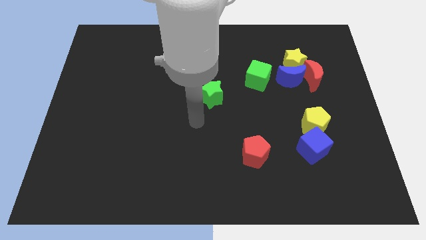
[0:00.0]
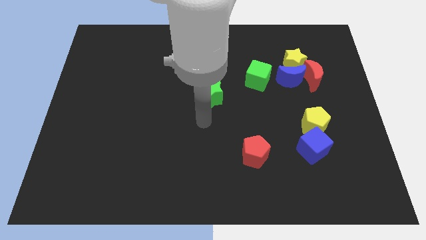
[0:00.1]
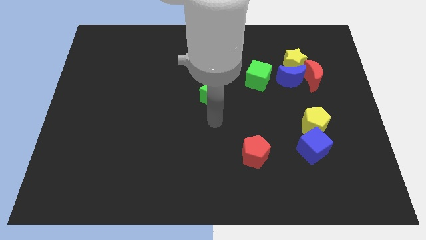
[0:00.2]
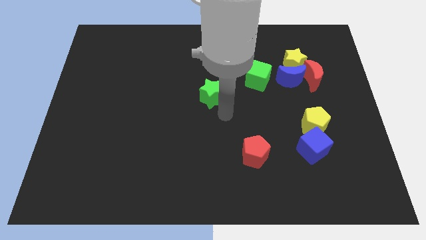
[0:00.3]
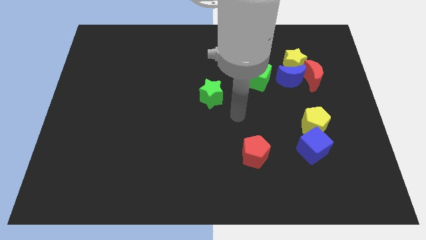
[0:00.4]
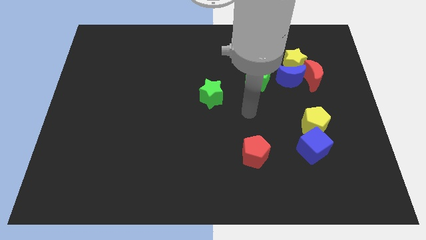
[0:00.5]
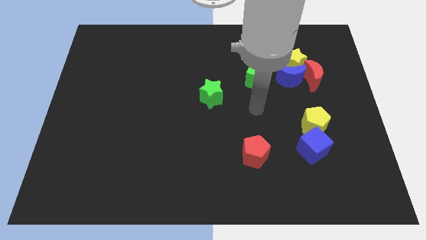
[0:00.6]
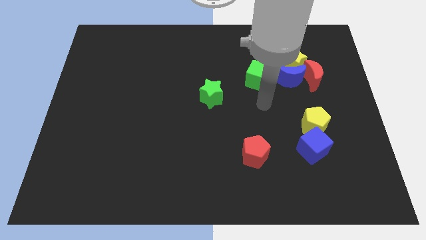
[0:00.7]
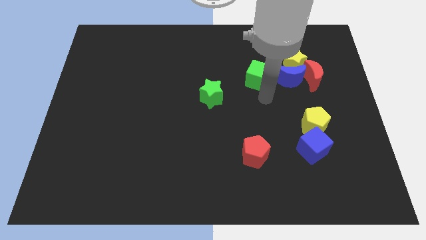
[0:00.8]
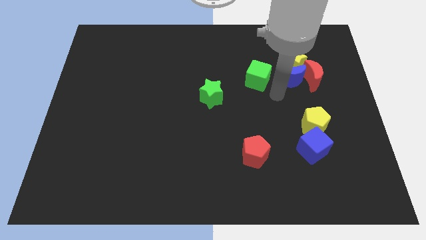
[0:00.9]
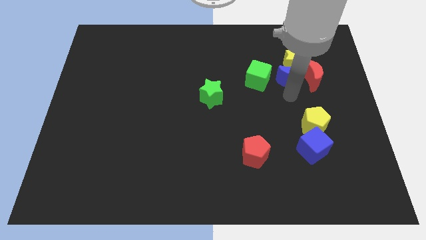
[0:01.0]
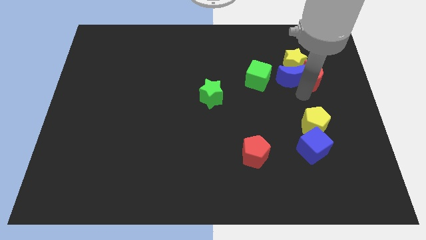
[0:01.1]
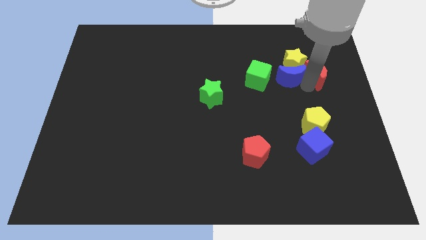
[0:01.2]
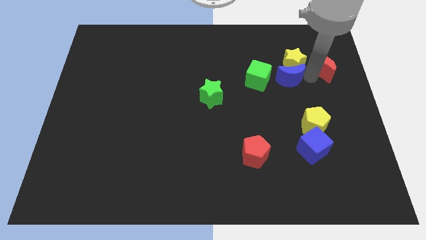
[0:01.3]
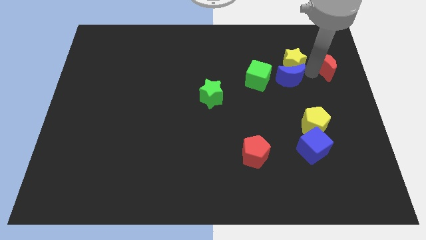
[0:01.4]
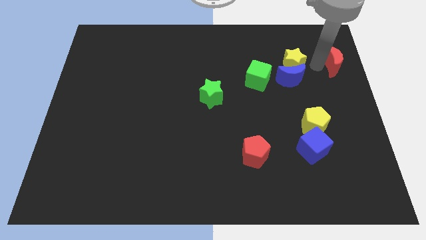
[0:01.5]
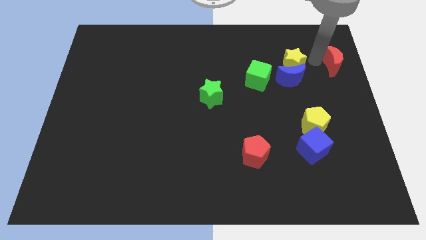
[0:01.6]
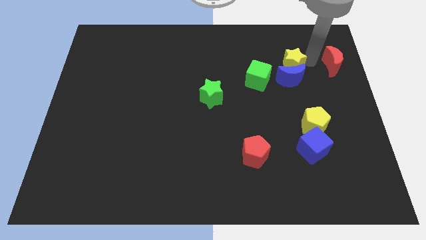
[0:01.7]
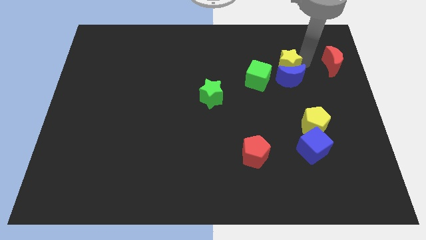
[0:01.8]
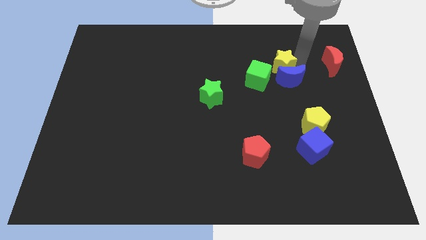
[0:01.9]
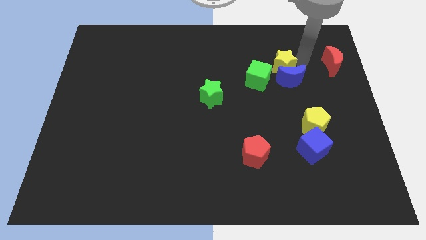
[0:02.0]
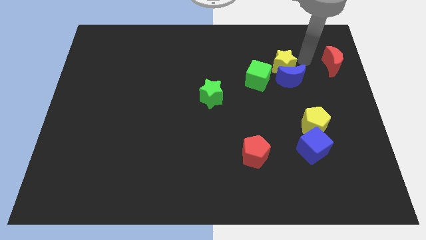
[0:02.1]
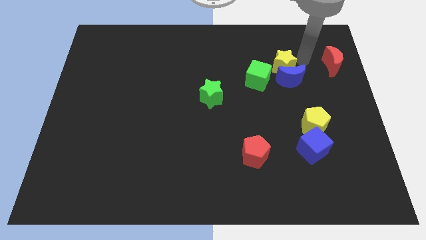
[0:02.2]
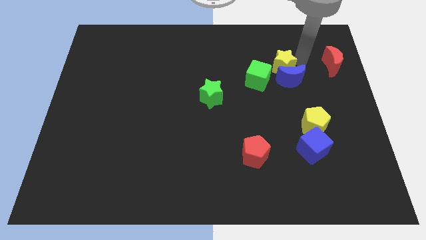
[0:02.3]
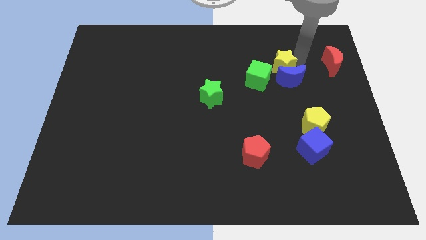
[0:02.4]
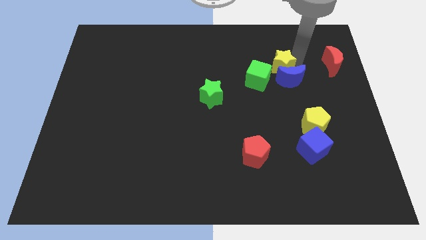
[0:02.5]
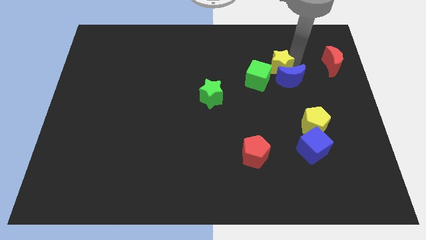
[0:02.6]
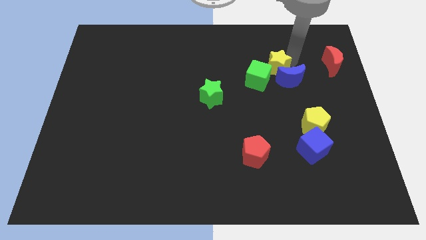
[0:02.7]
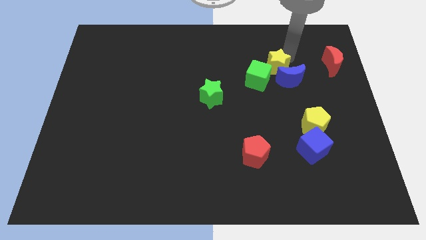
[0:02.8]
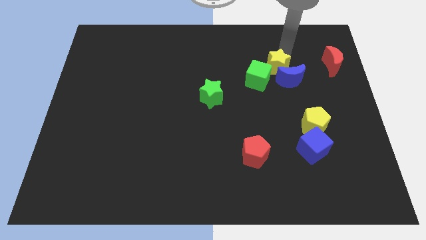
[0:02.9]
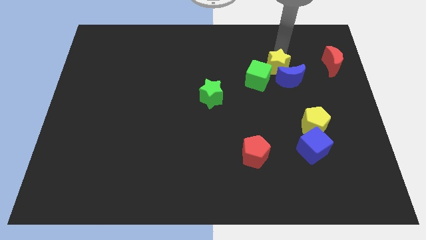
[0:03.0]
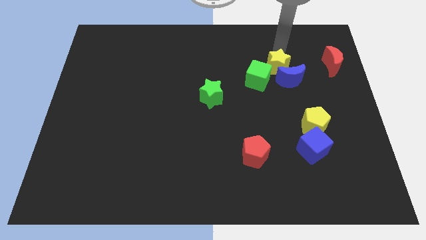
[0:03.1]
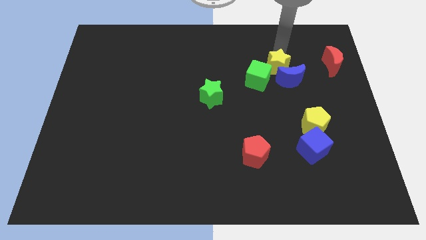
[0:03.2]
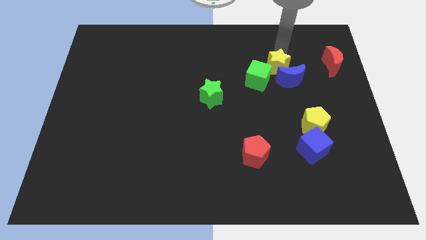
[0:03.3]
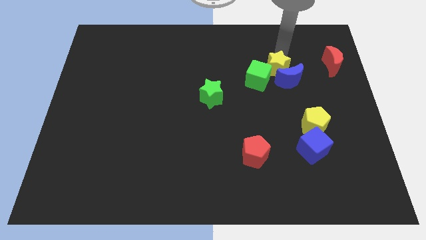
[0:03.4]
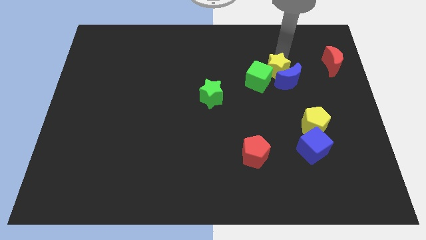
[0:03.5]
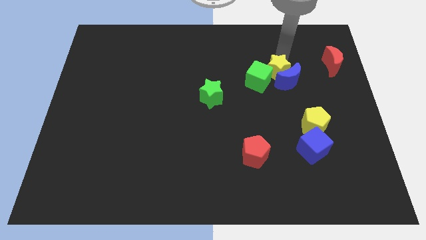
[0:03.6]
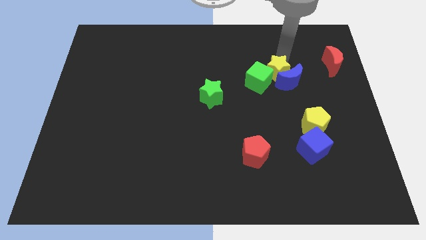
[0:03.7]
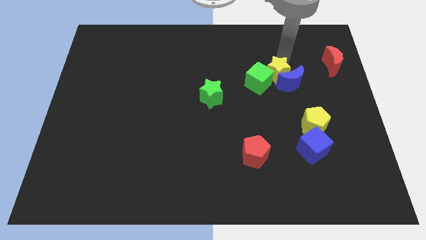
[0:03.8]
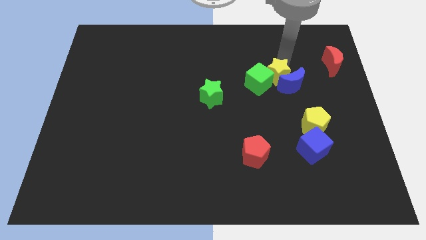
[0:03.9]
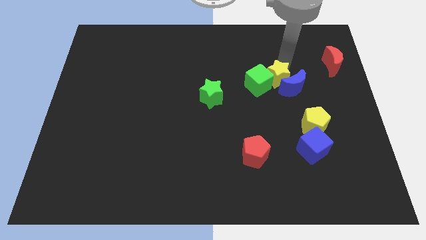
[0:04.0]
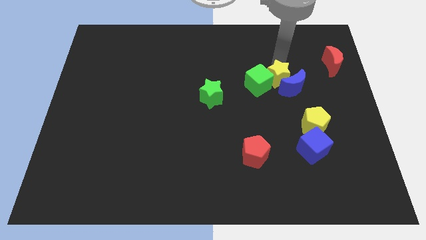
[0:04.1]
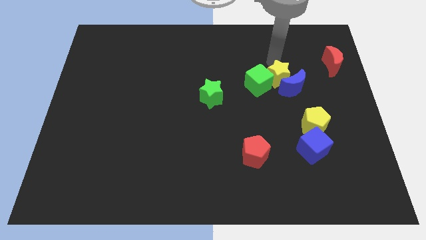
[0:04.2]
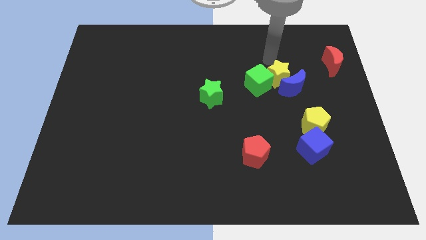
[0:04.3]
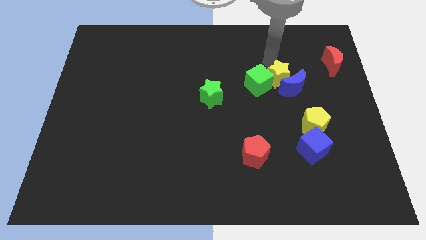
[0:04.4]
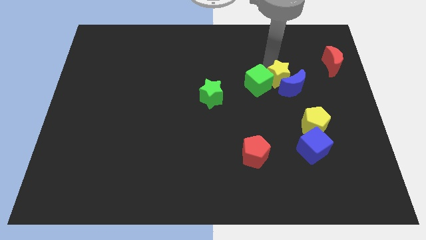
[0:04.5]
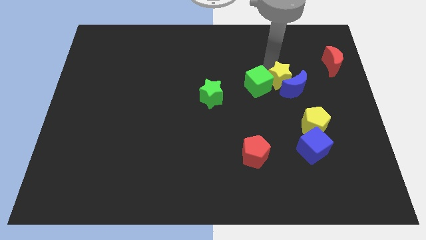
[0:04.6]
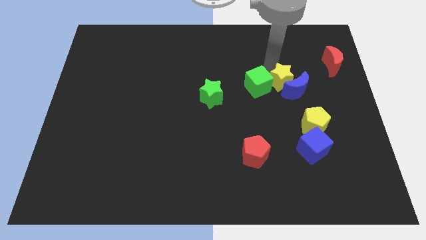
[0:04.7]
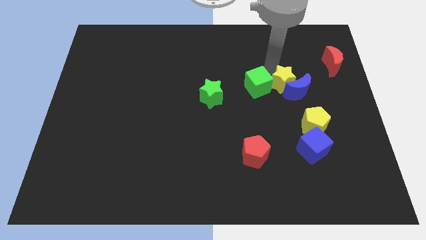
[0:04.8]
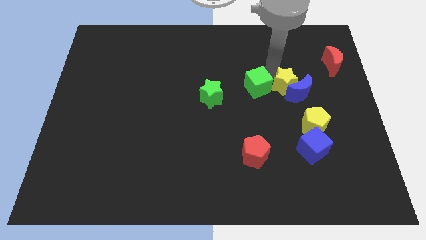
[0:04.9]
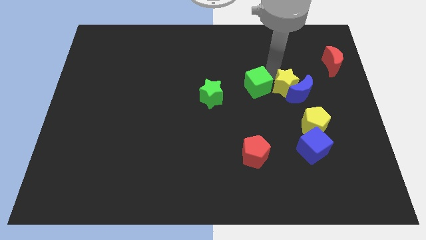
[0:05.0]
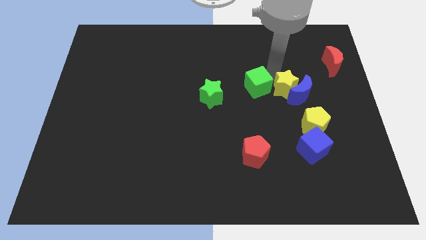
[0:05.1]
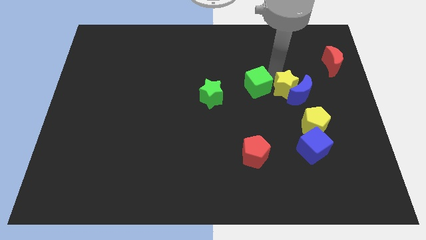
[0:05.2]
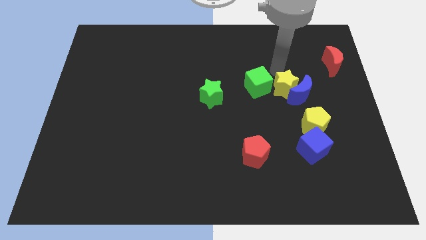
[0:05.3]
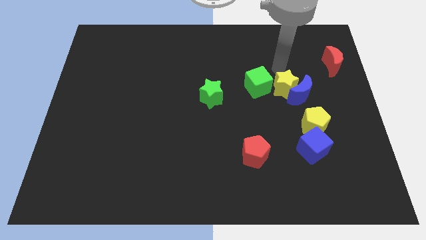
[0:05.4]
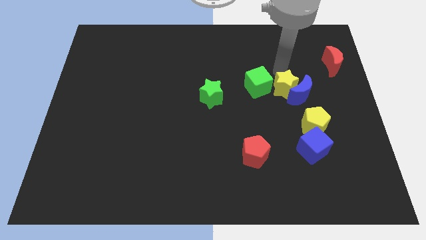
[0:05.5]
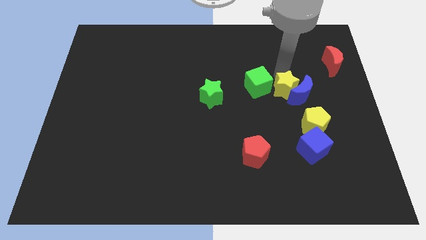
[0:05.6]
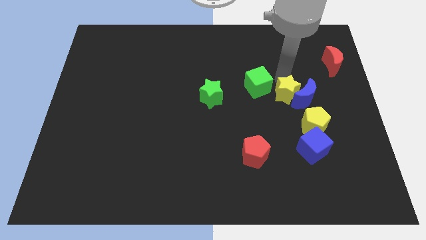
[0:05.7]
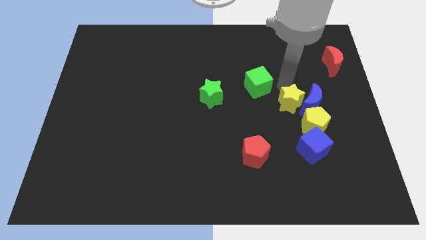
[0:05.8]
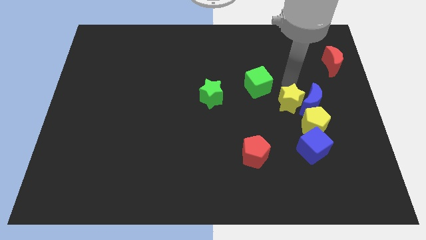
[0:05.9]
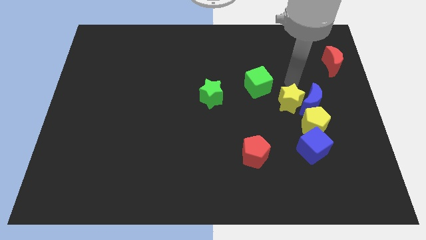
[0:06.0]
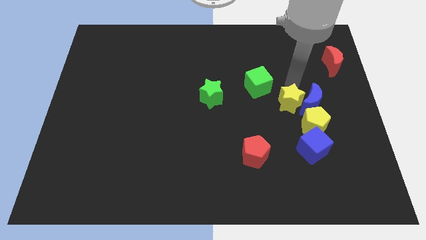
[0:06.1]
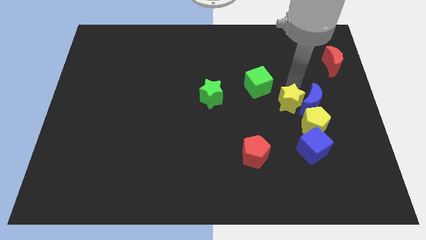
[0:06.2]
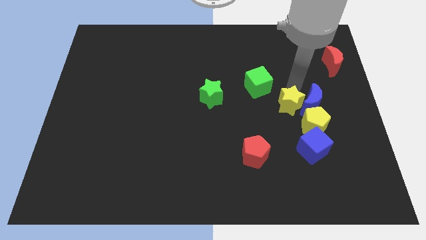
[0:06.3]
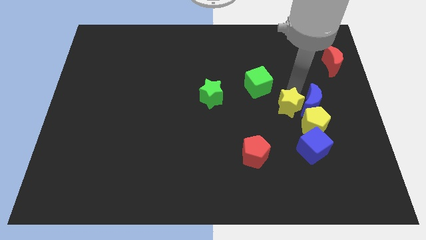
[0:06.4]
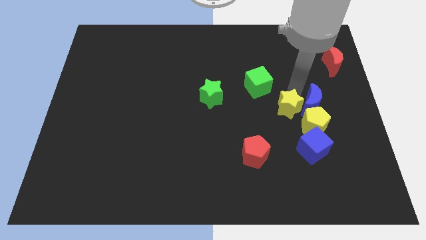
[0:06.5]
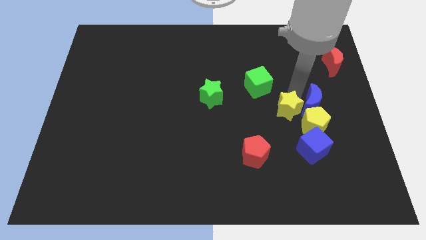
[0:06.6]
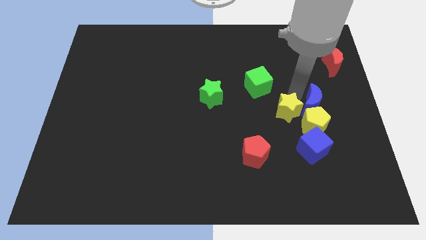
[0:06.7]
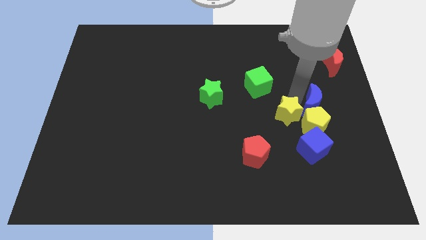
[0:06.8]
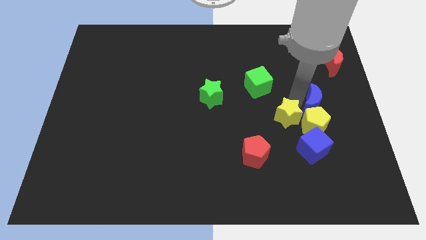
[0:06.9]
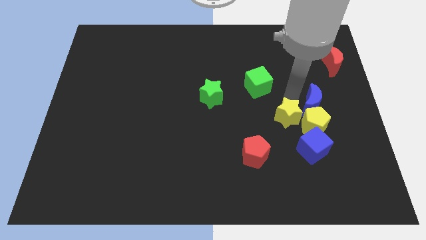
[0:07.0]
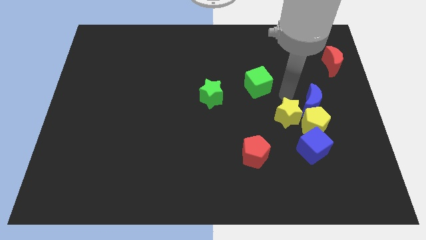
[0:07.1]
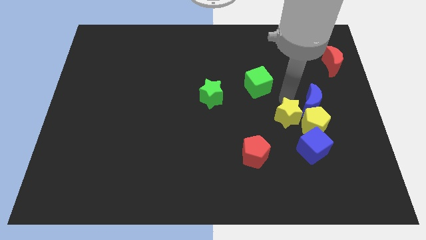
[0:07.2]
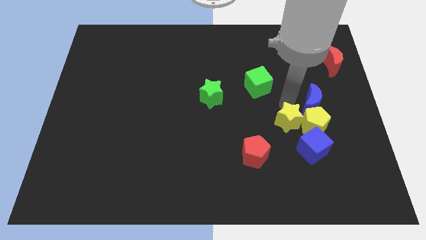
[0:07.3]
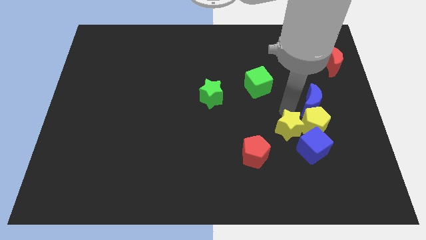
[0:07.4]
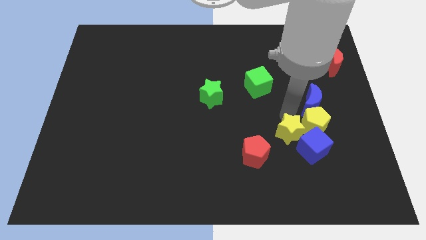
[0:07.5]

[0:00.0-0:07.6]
slide the yellow star down

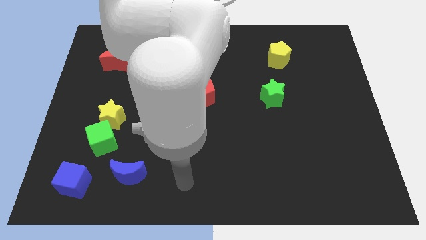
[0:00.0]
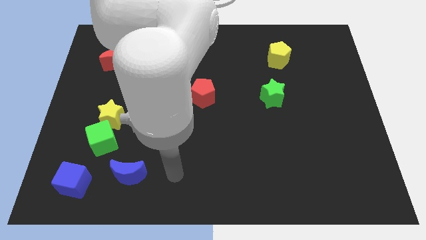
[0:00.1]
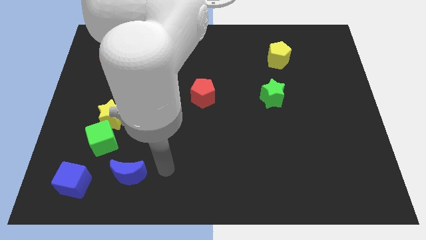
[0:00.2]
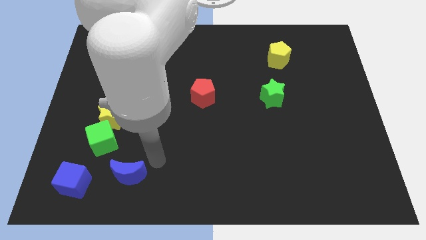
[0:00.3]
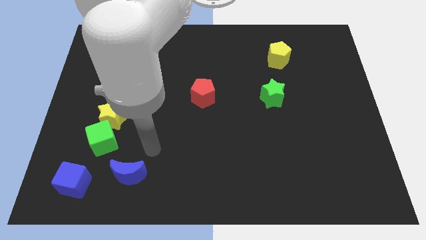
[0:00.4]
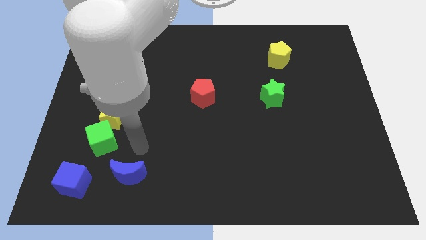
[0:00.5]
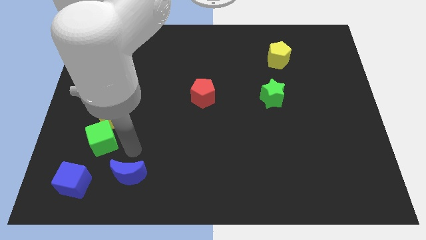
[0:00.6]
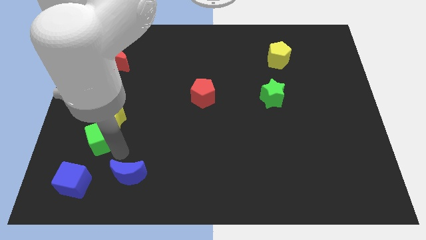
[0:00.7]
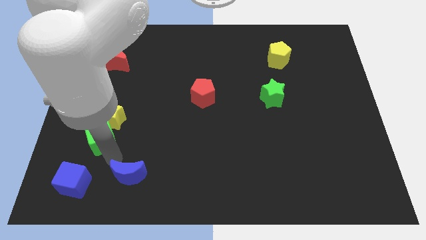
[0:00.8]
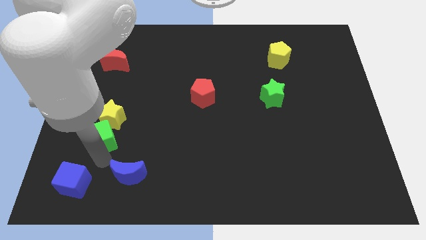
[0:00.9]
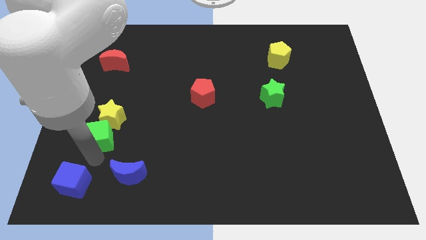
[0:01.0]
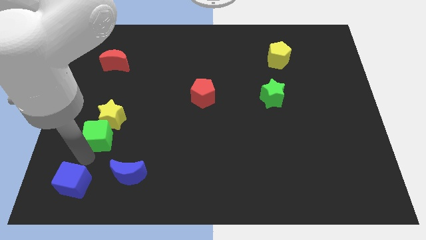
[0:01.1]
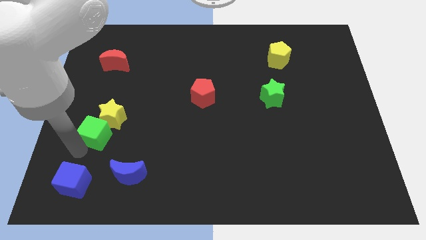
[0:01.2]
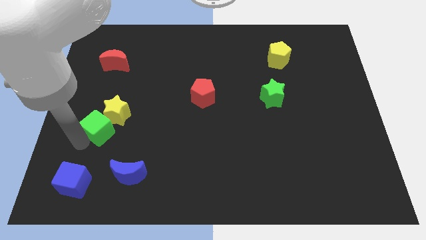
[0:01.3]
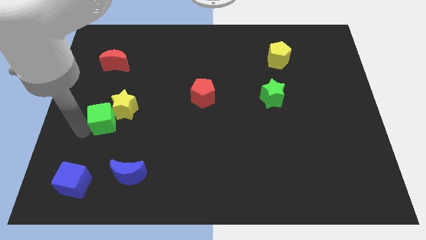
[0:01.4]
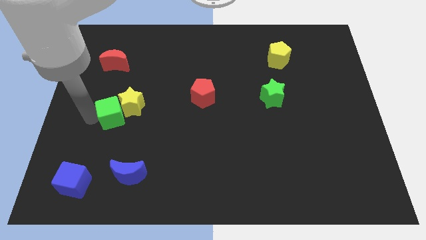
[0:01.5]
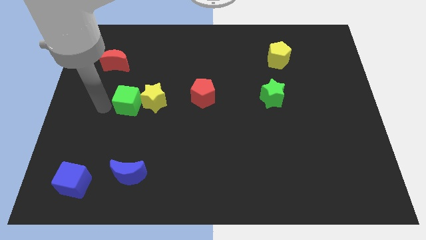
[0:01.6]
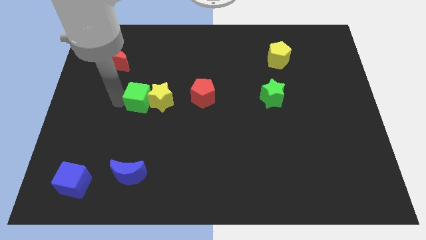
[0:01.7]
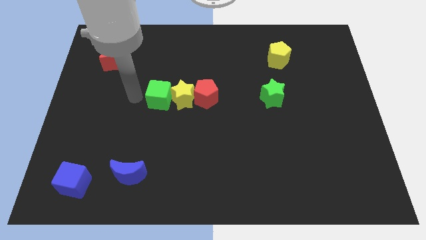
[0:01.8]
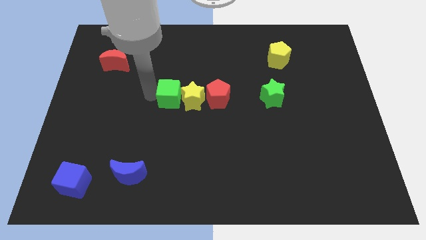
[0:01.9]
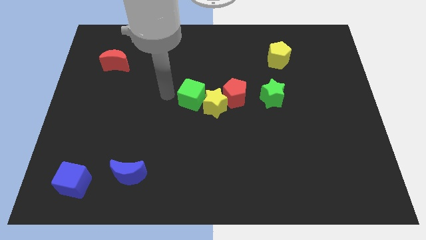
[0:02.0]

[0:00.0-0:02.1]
push the yellow star to the right
